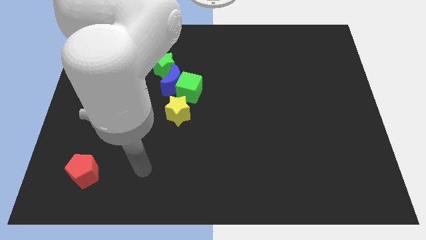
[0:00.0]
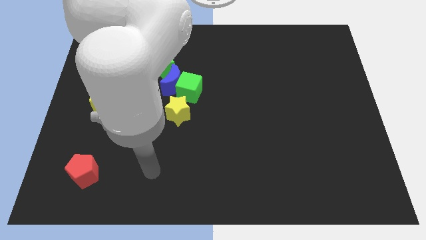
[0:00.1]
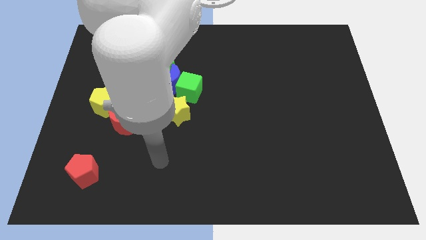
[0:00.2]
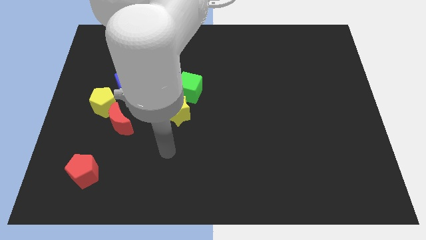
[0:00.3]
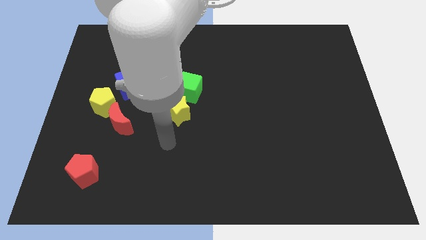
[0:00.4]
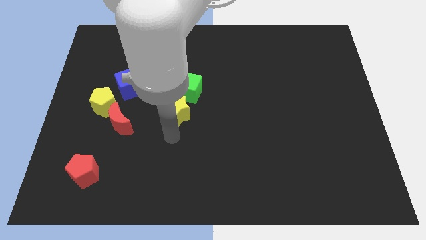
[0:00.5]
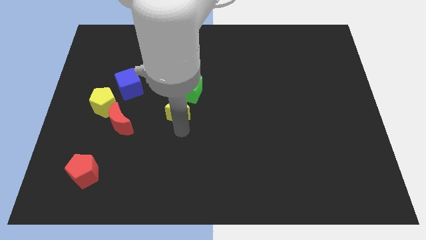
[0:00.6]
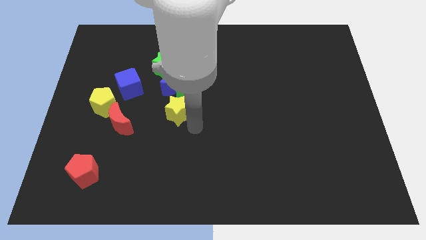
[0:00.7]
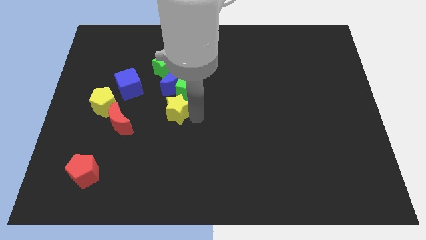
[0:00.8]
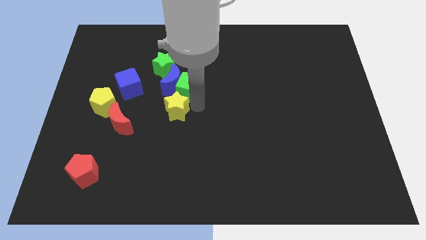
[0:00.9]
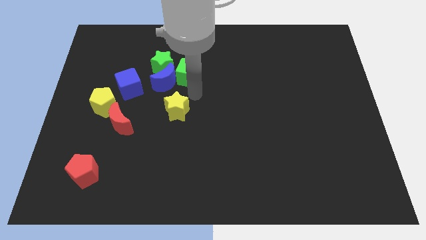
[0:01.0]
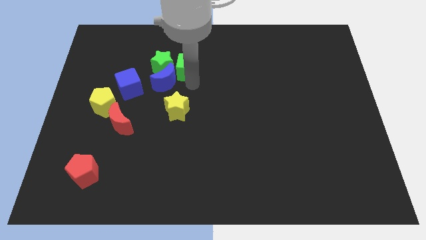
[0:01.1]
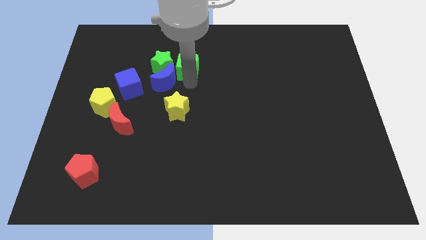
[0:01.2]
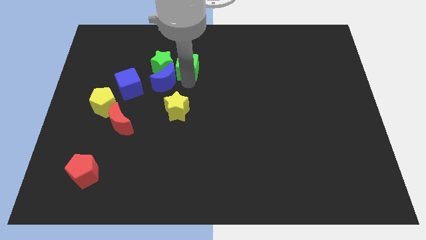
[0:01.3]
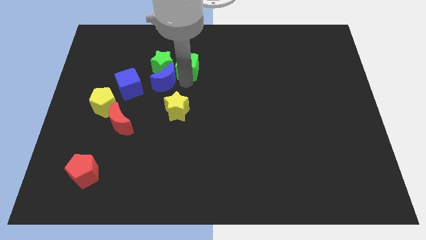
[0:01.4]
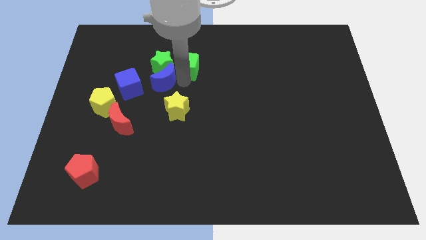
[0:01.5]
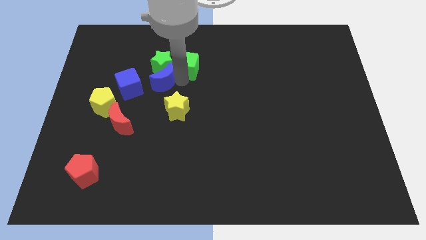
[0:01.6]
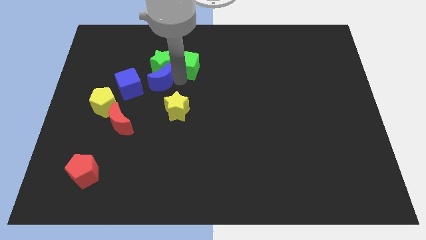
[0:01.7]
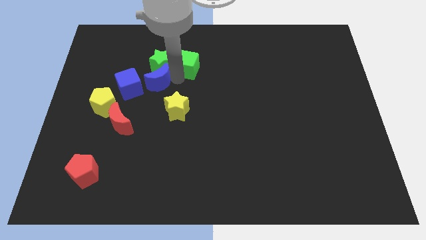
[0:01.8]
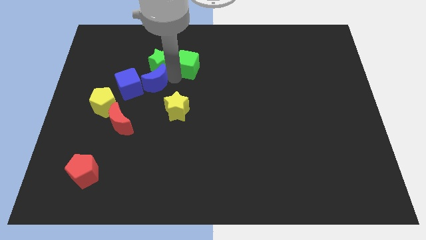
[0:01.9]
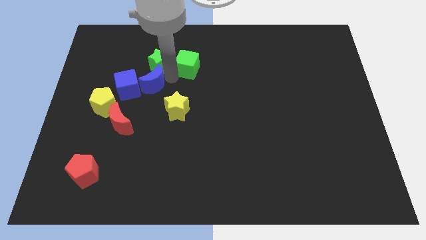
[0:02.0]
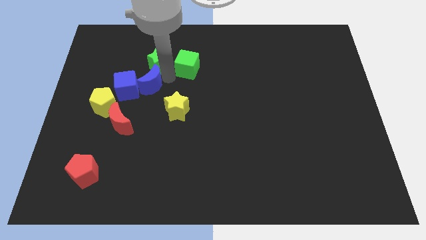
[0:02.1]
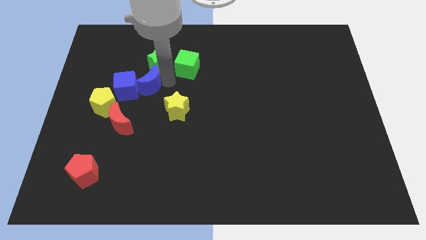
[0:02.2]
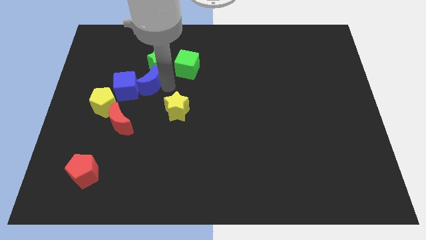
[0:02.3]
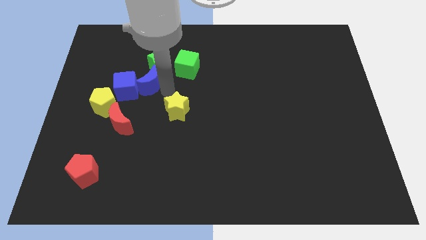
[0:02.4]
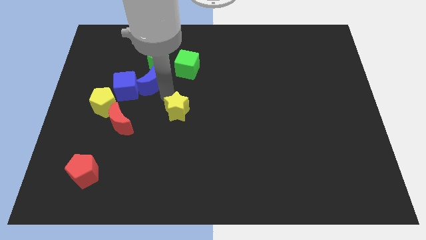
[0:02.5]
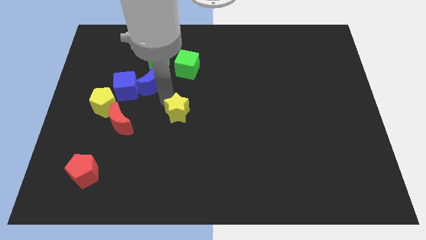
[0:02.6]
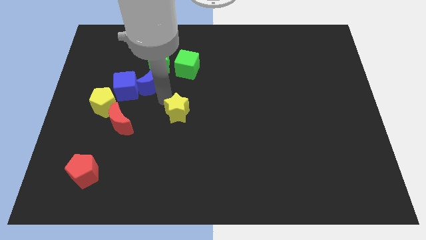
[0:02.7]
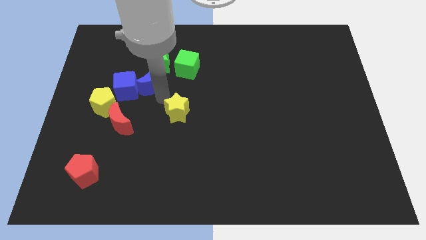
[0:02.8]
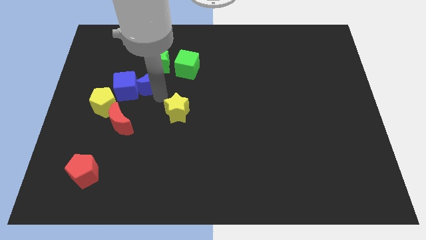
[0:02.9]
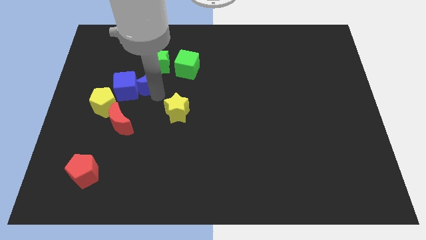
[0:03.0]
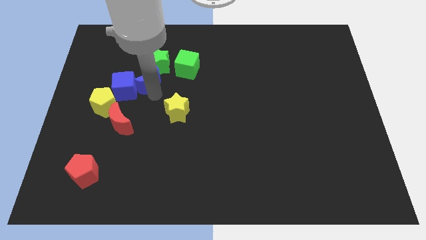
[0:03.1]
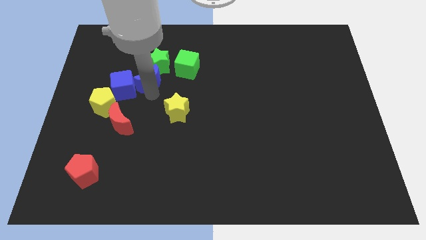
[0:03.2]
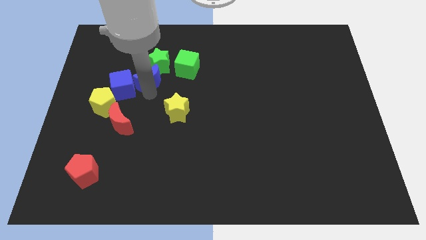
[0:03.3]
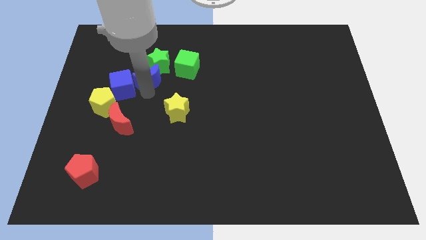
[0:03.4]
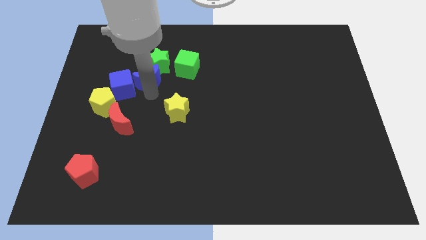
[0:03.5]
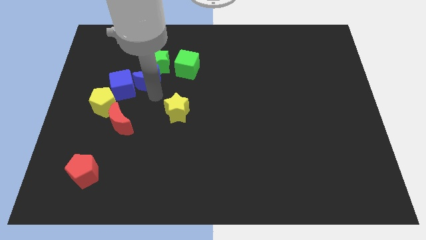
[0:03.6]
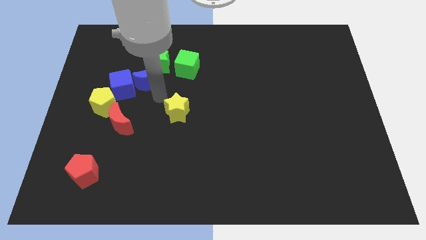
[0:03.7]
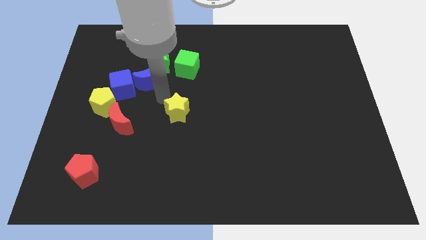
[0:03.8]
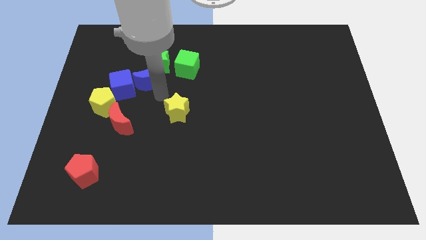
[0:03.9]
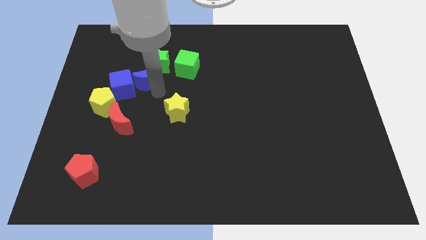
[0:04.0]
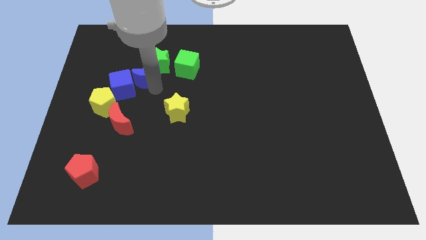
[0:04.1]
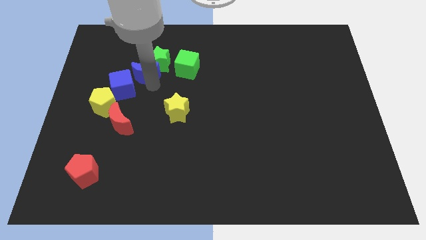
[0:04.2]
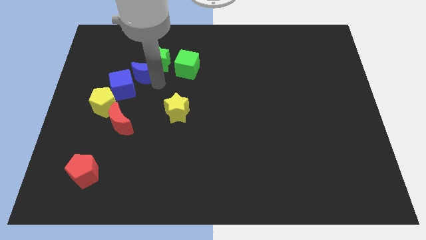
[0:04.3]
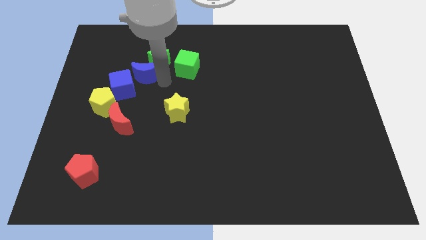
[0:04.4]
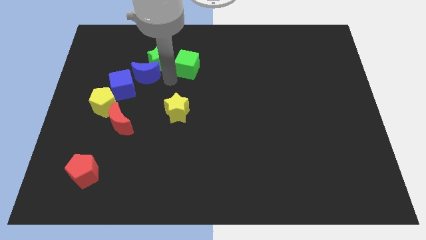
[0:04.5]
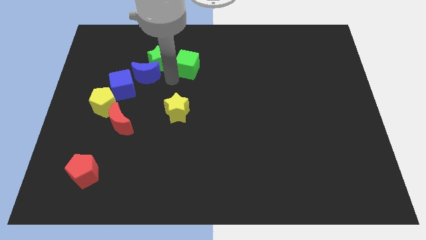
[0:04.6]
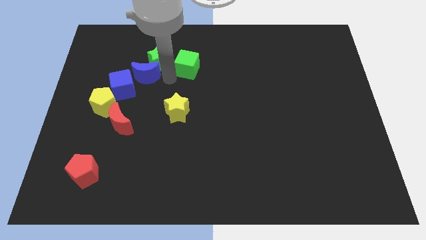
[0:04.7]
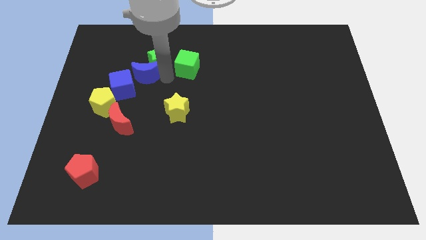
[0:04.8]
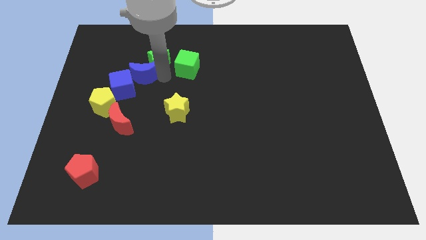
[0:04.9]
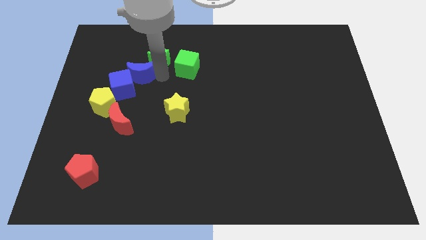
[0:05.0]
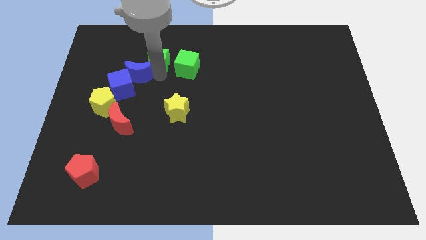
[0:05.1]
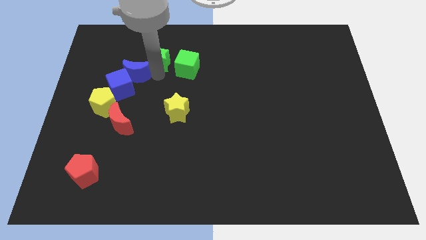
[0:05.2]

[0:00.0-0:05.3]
separate the blue moon from the green cube, green star, and yellow star

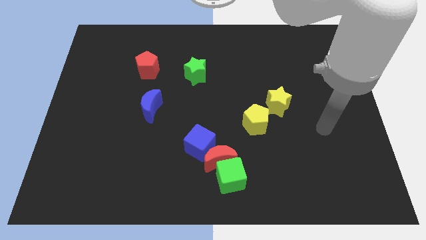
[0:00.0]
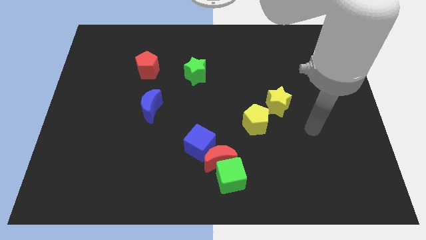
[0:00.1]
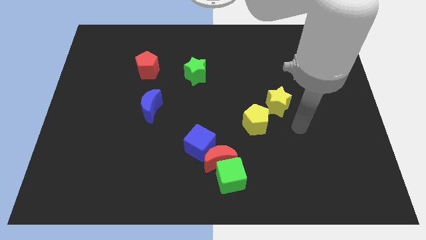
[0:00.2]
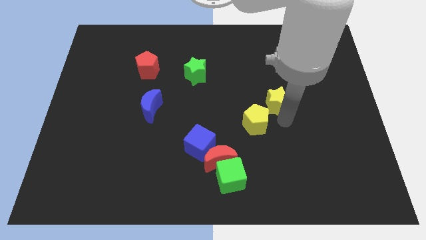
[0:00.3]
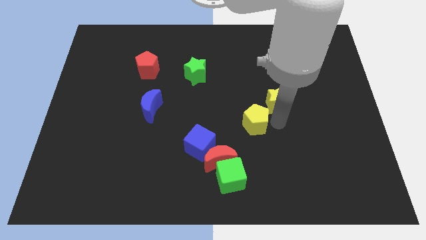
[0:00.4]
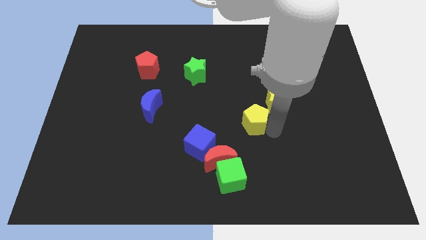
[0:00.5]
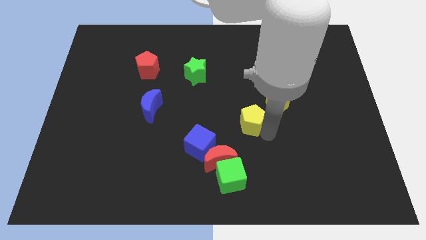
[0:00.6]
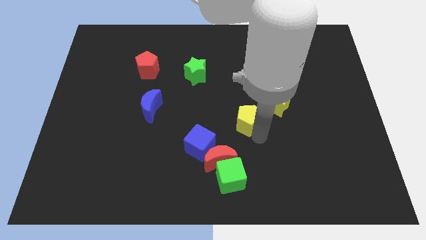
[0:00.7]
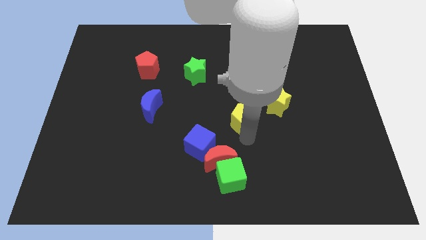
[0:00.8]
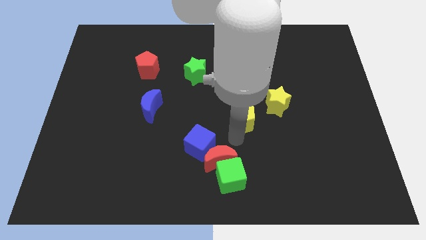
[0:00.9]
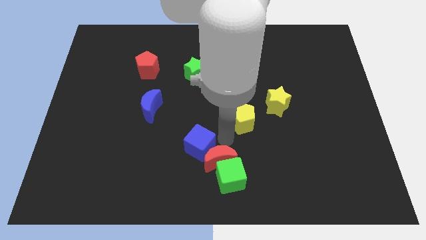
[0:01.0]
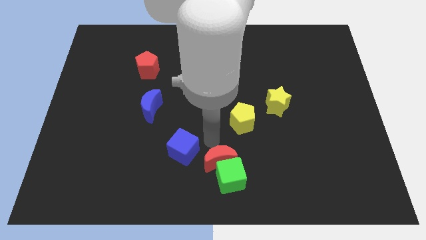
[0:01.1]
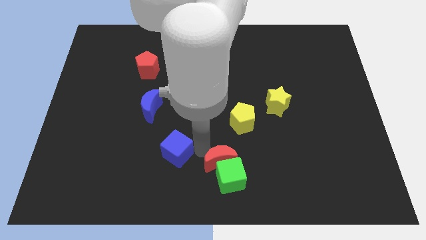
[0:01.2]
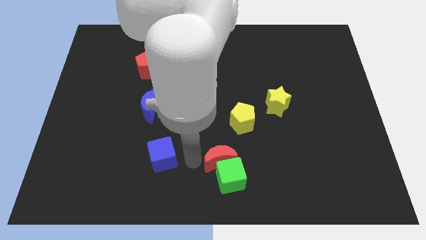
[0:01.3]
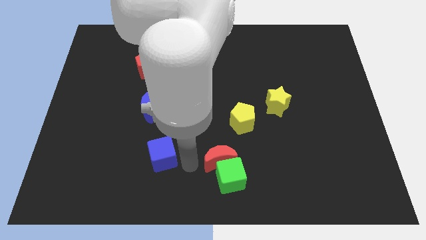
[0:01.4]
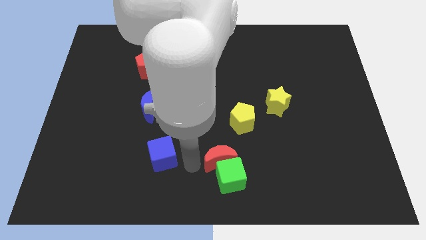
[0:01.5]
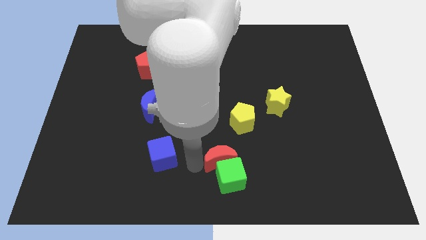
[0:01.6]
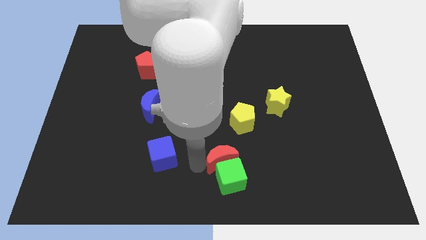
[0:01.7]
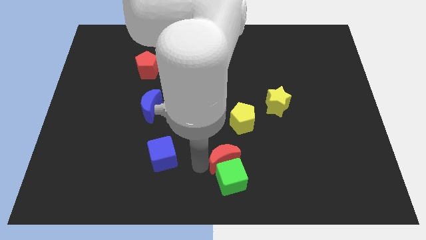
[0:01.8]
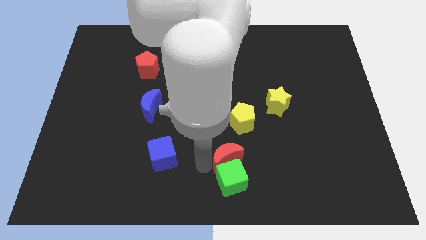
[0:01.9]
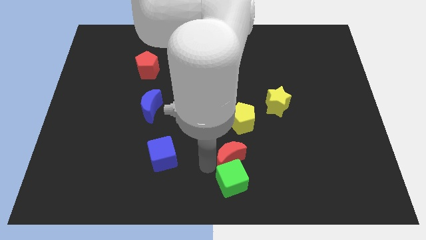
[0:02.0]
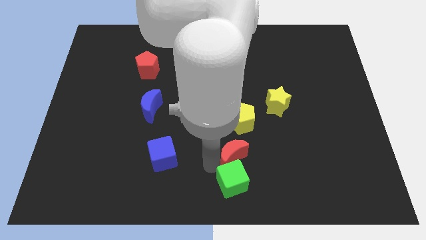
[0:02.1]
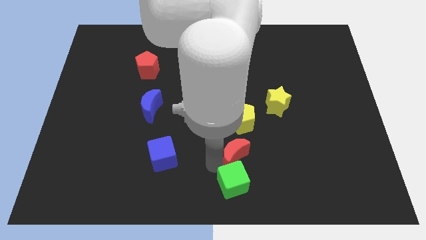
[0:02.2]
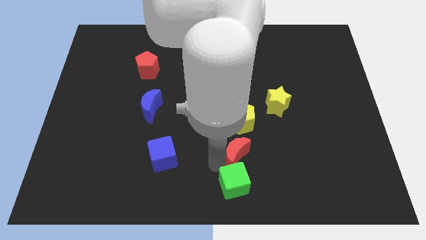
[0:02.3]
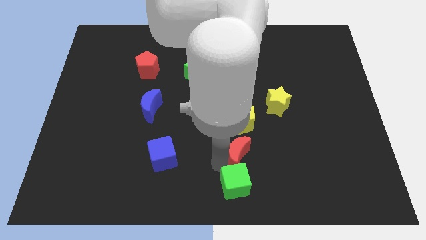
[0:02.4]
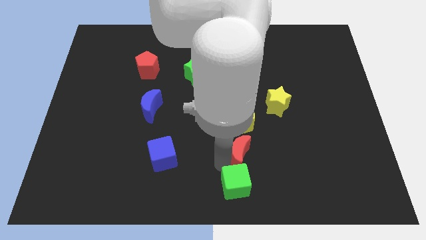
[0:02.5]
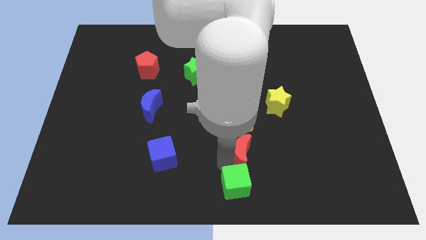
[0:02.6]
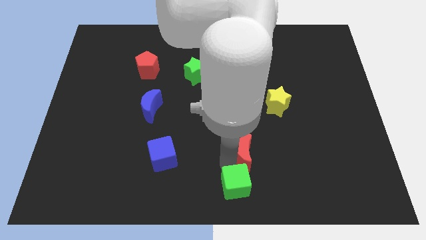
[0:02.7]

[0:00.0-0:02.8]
separate the red moon from the green cube and blue cube

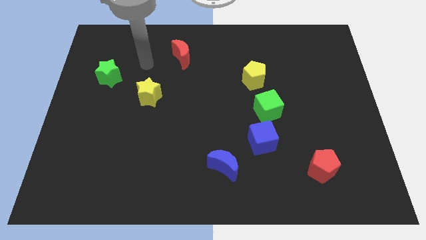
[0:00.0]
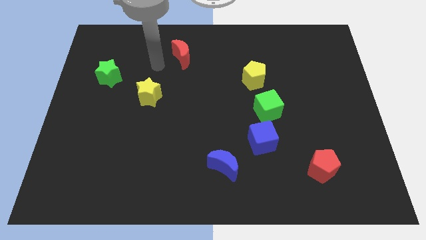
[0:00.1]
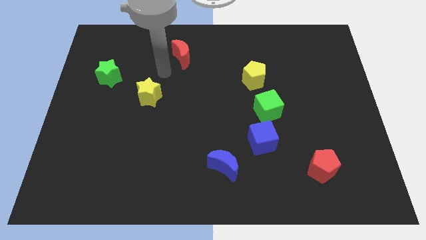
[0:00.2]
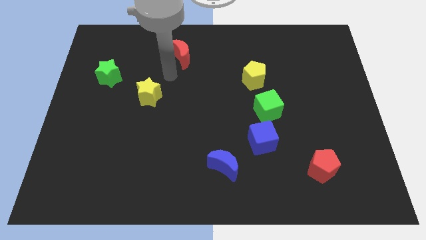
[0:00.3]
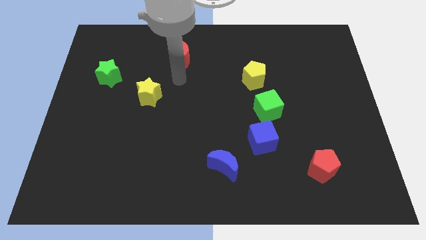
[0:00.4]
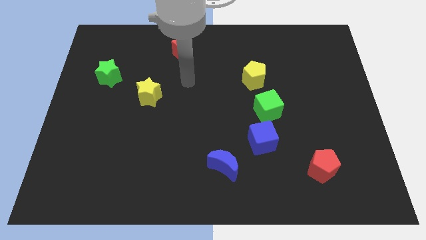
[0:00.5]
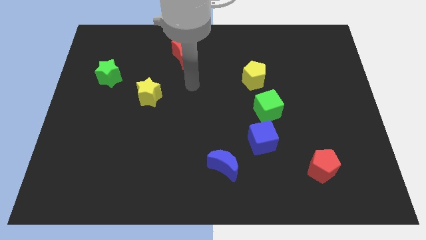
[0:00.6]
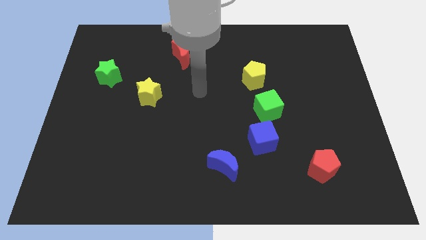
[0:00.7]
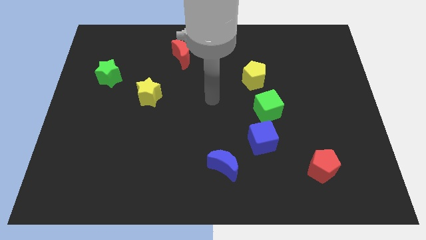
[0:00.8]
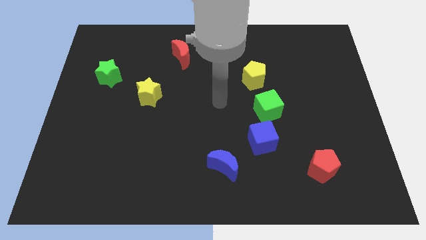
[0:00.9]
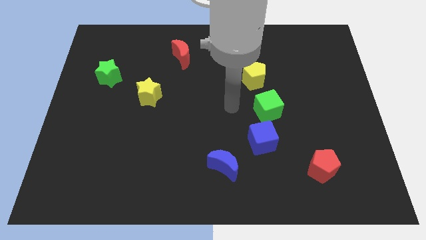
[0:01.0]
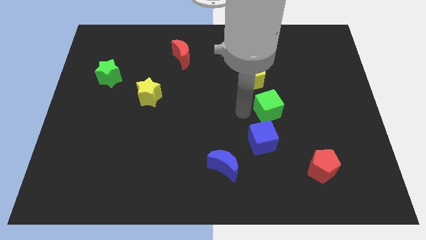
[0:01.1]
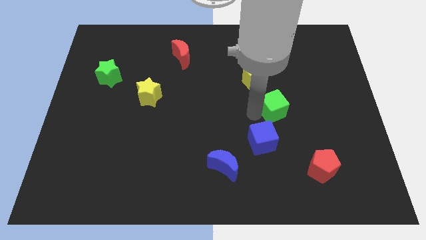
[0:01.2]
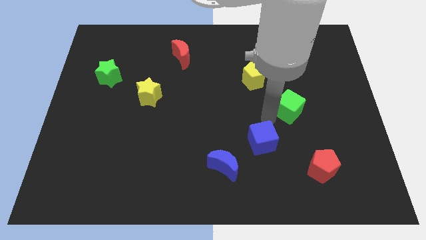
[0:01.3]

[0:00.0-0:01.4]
pull the blue cube apart from the green cube
